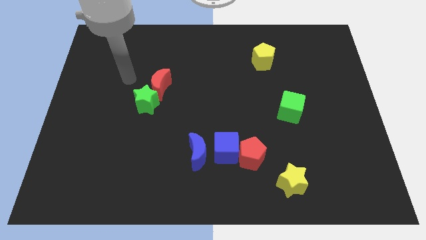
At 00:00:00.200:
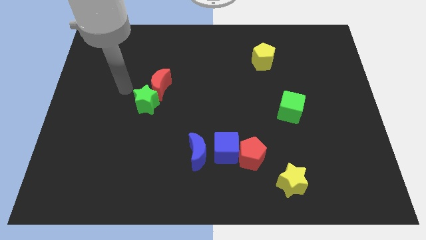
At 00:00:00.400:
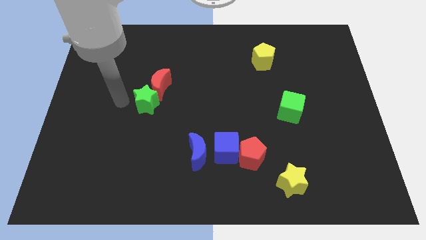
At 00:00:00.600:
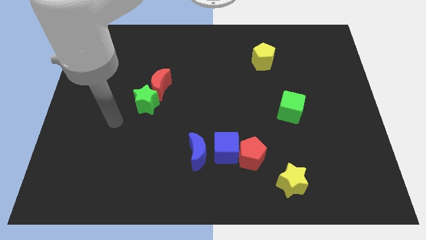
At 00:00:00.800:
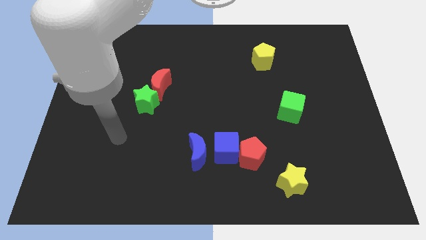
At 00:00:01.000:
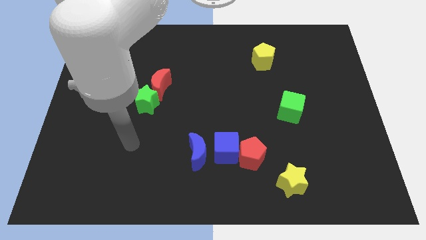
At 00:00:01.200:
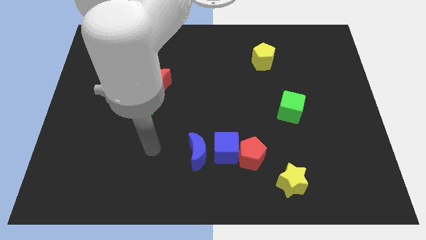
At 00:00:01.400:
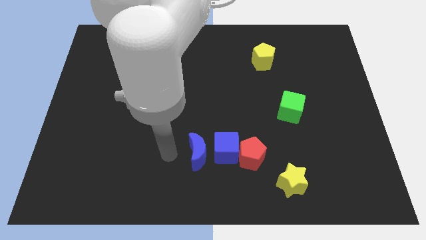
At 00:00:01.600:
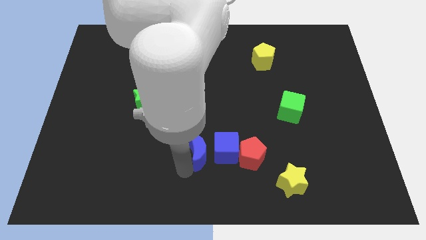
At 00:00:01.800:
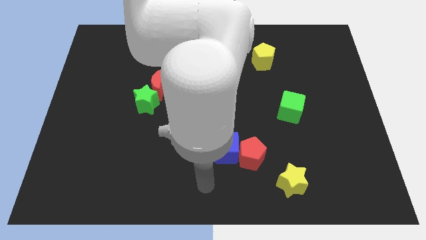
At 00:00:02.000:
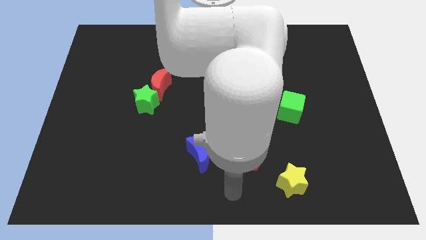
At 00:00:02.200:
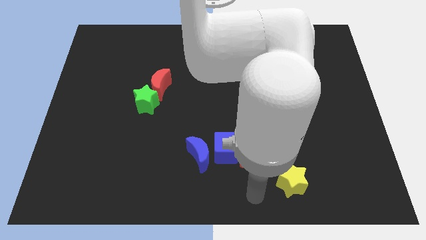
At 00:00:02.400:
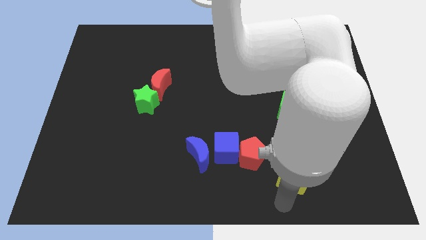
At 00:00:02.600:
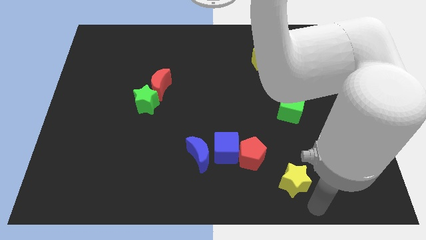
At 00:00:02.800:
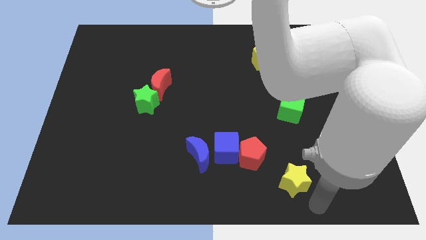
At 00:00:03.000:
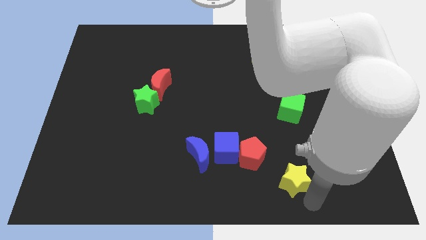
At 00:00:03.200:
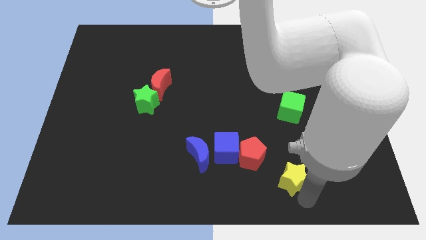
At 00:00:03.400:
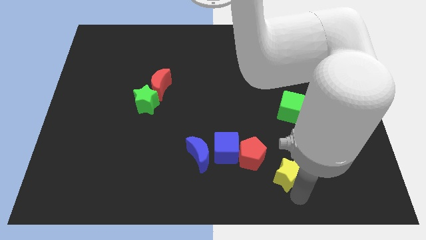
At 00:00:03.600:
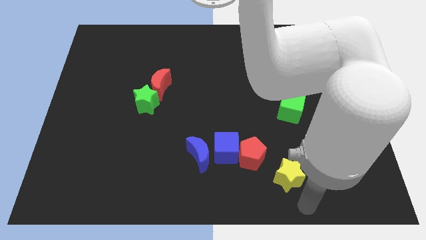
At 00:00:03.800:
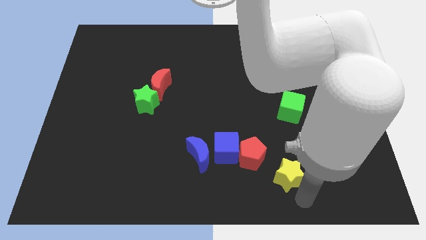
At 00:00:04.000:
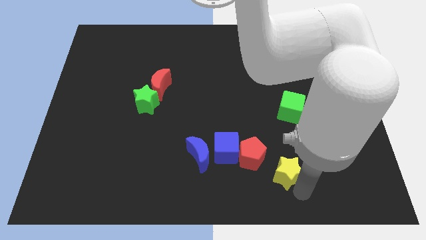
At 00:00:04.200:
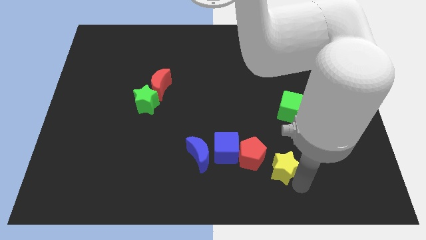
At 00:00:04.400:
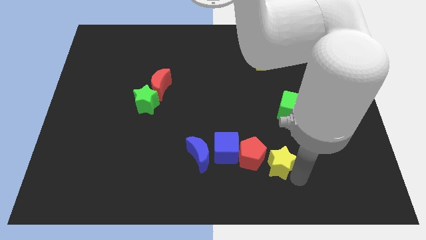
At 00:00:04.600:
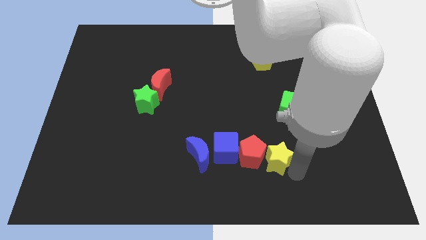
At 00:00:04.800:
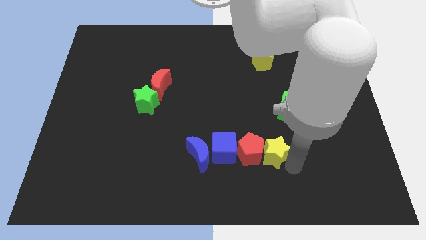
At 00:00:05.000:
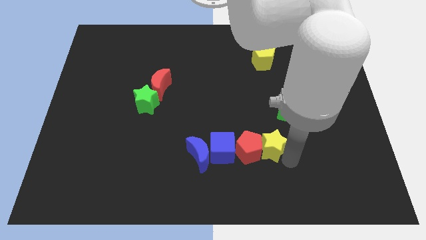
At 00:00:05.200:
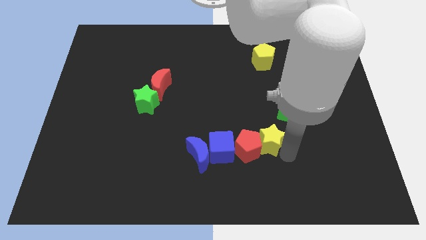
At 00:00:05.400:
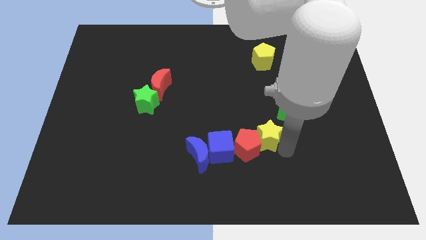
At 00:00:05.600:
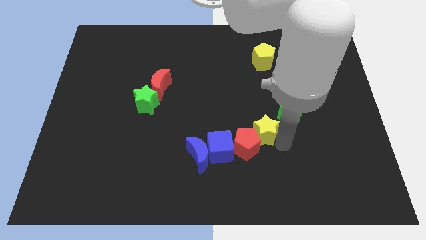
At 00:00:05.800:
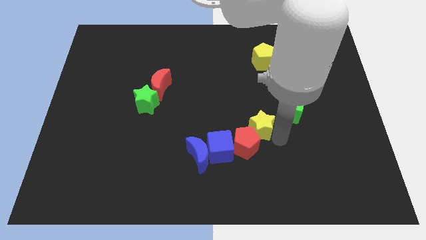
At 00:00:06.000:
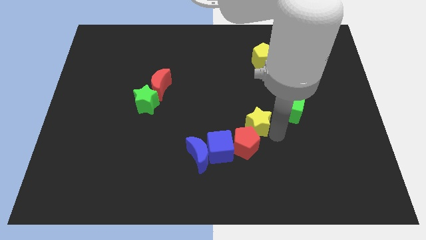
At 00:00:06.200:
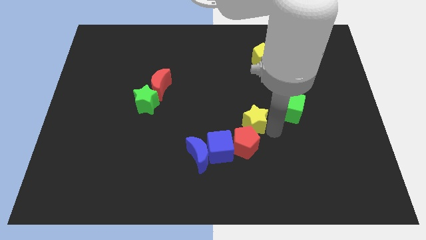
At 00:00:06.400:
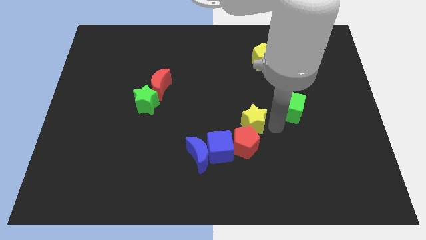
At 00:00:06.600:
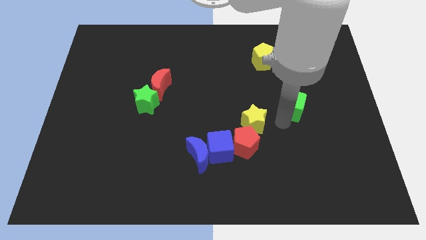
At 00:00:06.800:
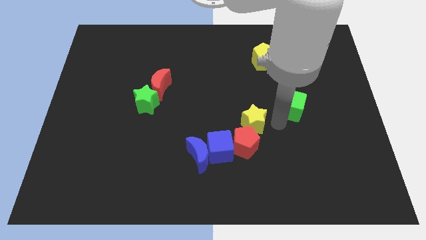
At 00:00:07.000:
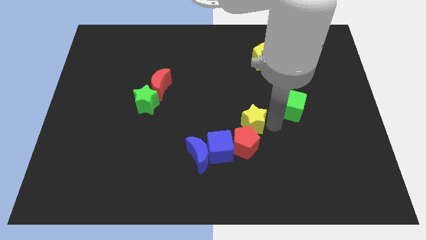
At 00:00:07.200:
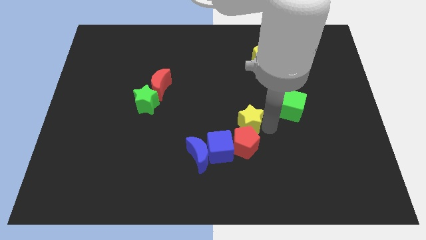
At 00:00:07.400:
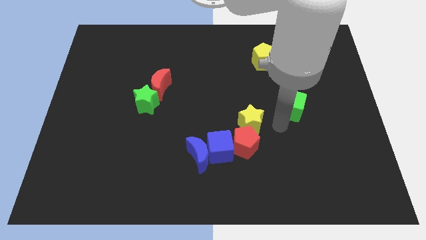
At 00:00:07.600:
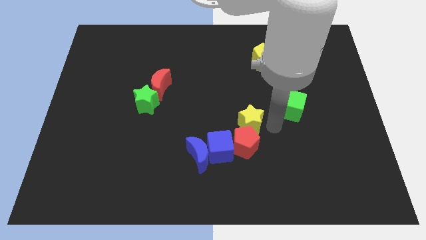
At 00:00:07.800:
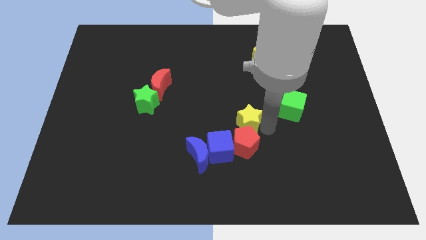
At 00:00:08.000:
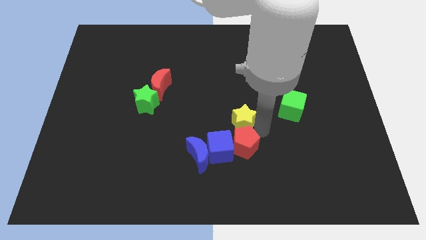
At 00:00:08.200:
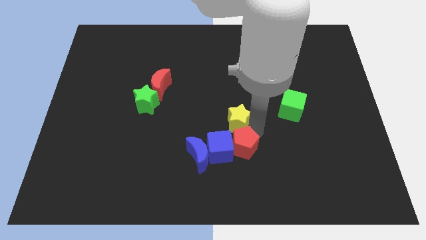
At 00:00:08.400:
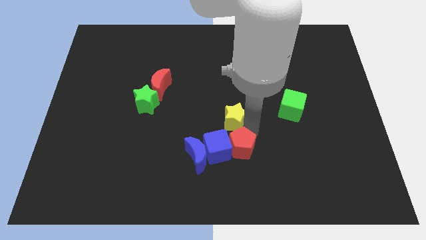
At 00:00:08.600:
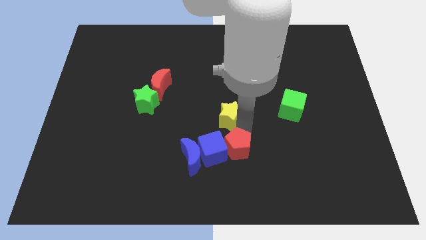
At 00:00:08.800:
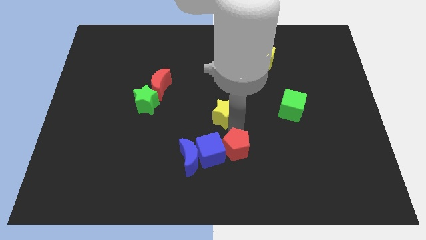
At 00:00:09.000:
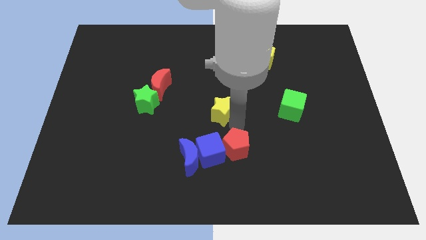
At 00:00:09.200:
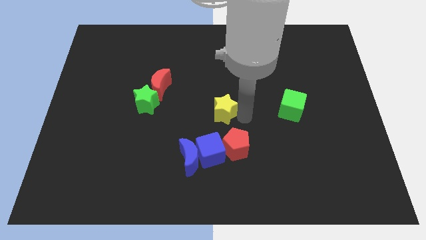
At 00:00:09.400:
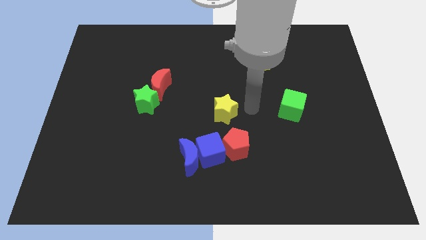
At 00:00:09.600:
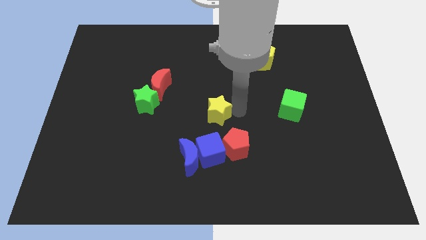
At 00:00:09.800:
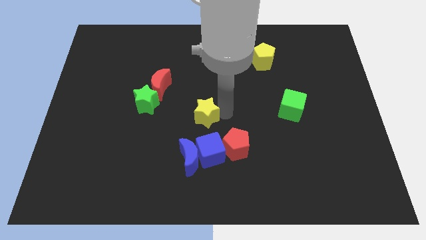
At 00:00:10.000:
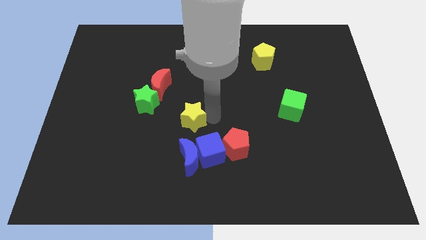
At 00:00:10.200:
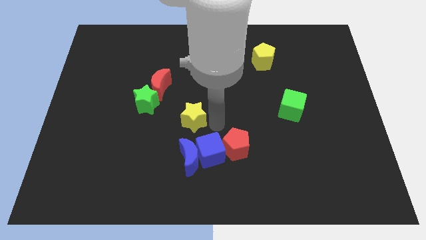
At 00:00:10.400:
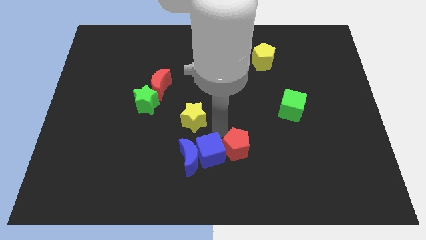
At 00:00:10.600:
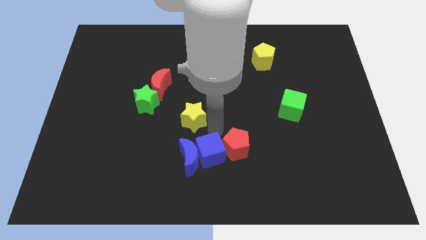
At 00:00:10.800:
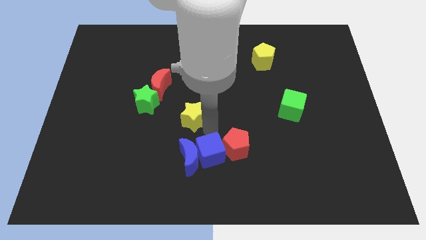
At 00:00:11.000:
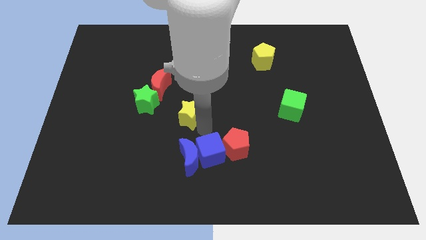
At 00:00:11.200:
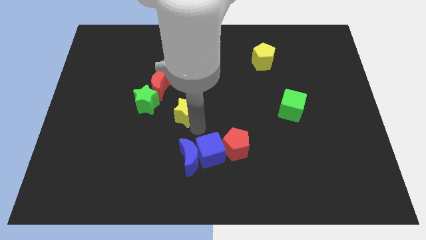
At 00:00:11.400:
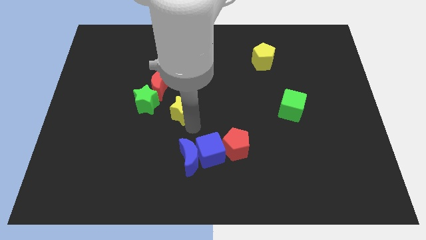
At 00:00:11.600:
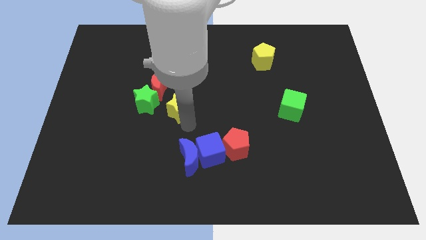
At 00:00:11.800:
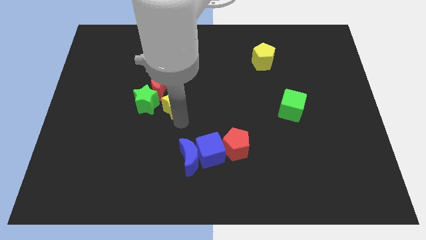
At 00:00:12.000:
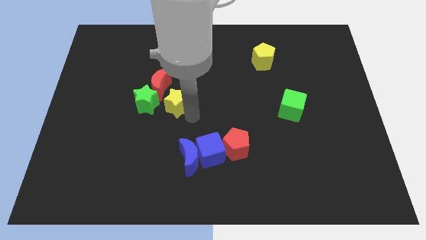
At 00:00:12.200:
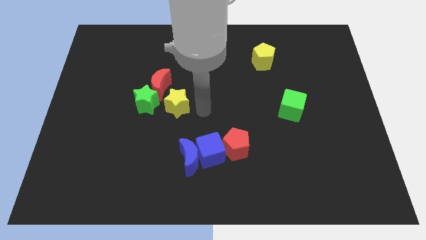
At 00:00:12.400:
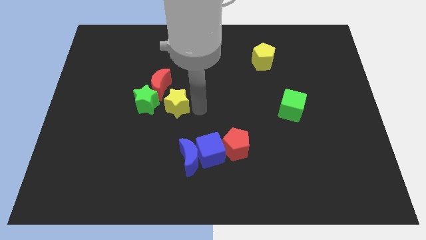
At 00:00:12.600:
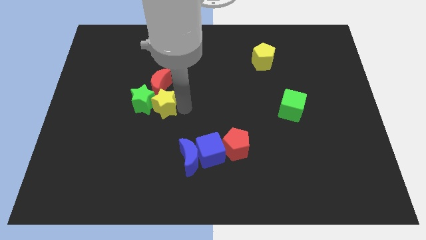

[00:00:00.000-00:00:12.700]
push the yellow star next to the green star
